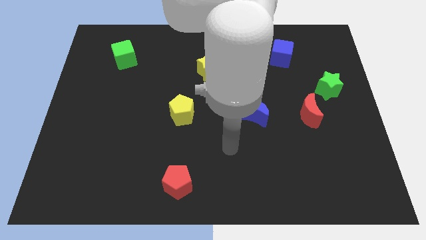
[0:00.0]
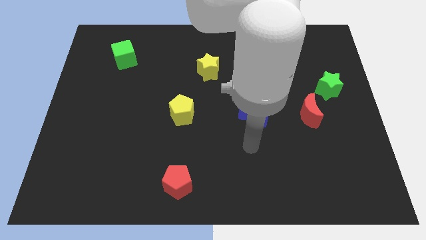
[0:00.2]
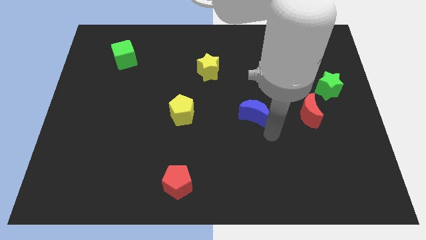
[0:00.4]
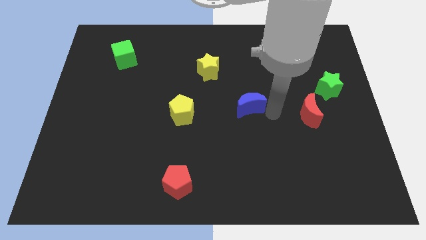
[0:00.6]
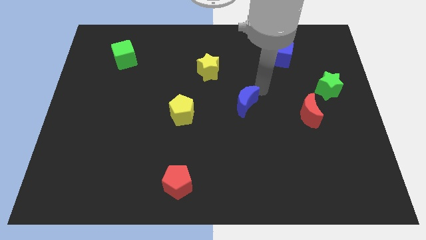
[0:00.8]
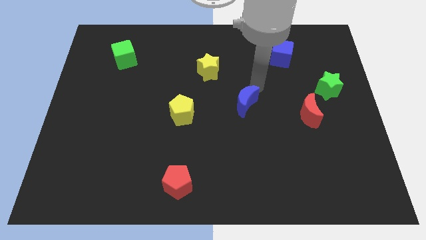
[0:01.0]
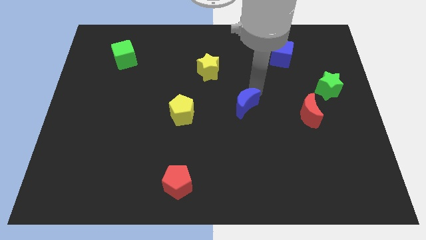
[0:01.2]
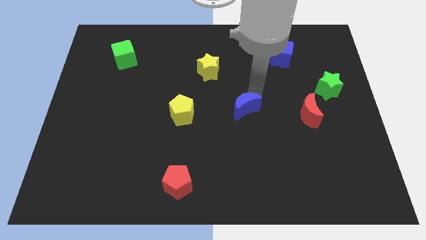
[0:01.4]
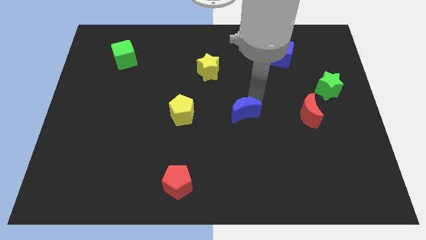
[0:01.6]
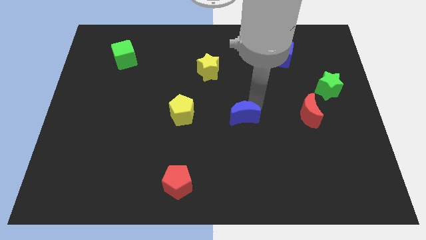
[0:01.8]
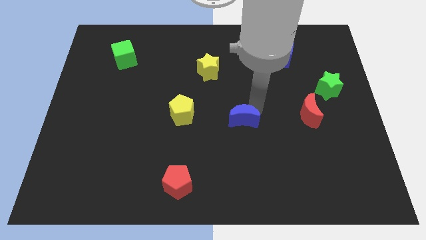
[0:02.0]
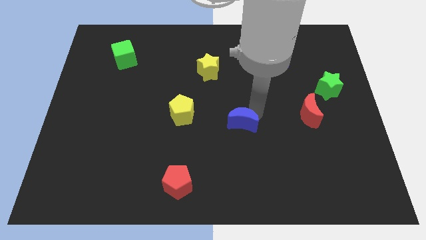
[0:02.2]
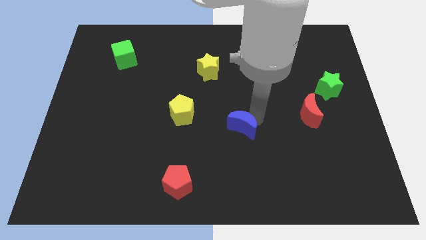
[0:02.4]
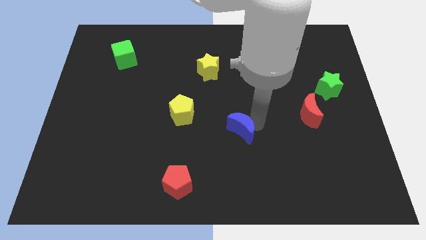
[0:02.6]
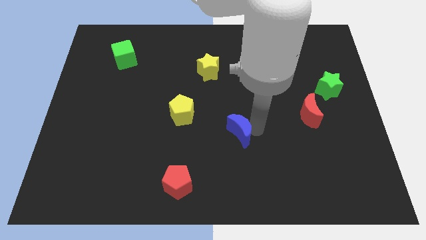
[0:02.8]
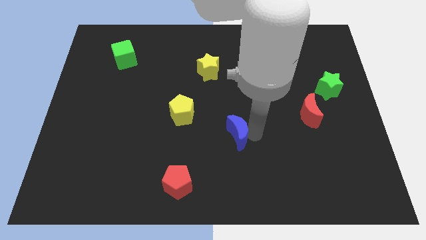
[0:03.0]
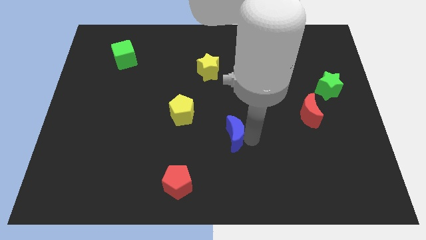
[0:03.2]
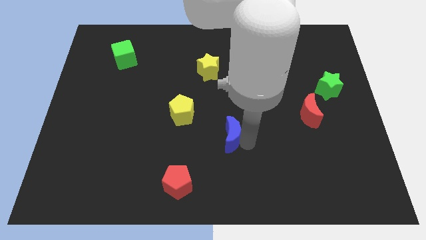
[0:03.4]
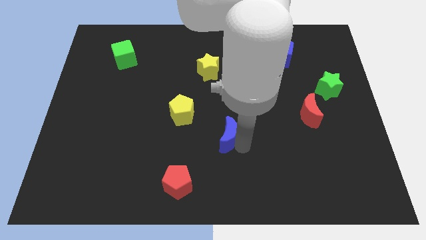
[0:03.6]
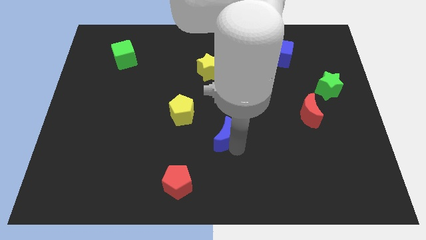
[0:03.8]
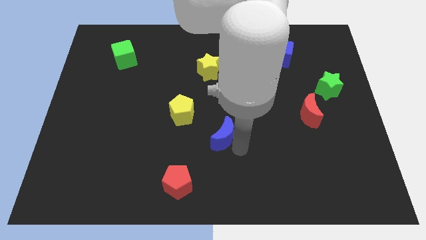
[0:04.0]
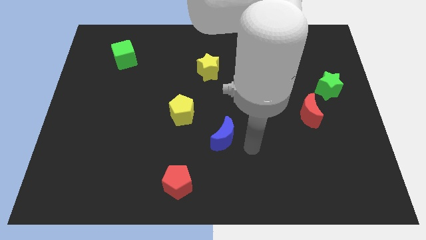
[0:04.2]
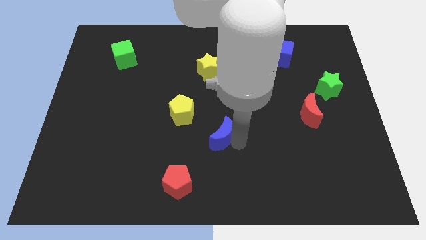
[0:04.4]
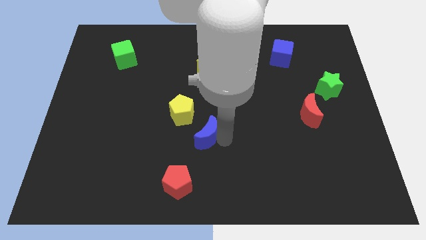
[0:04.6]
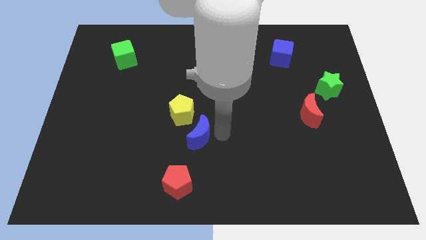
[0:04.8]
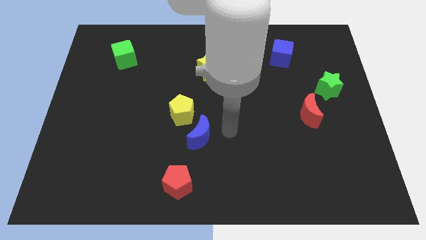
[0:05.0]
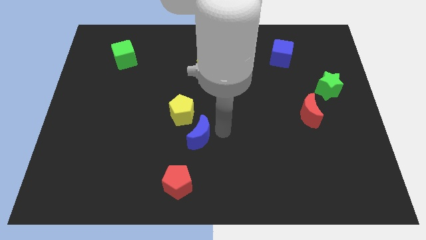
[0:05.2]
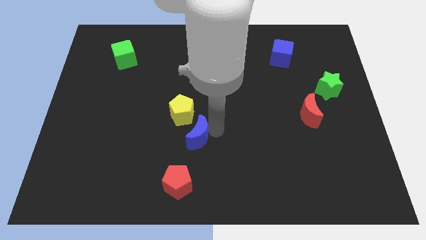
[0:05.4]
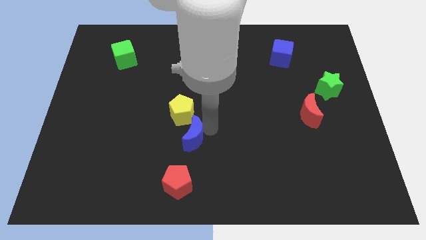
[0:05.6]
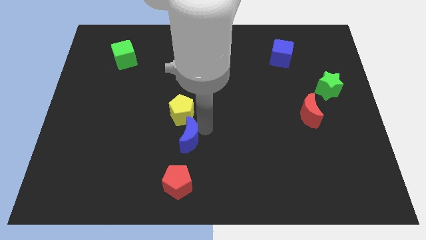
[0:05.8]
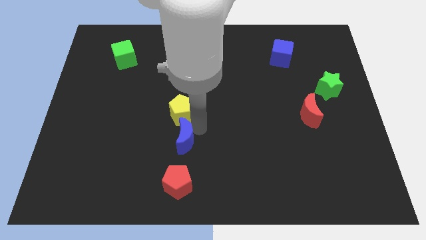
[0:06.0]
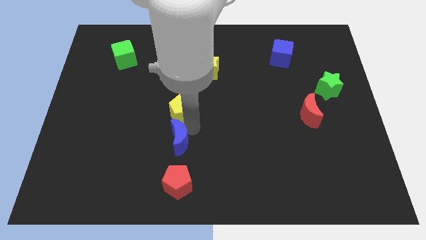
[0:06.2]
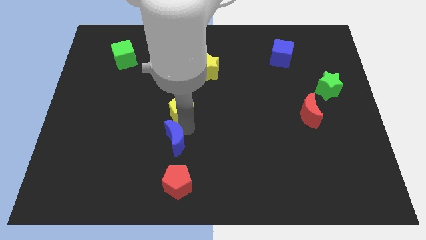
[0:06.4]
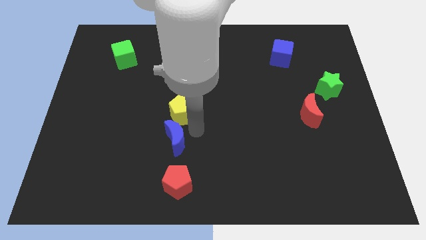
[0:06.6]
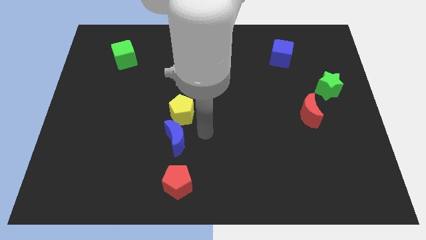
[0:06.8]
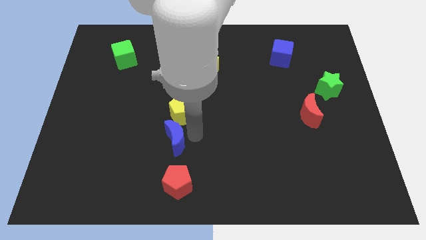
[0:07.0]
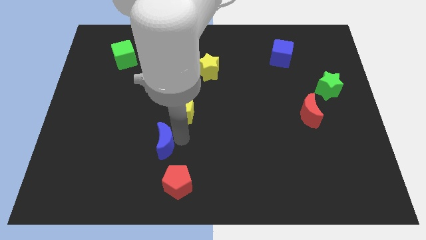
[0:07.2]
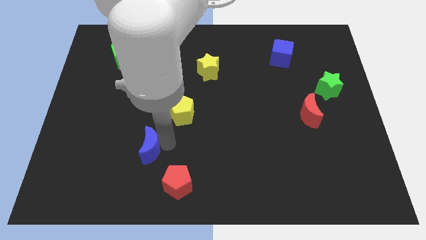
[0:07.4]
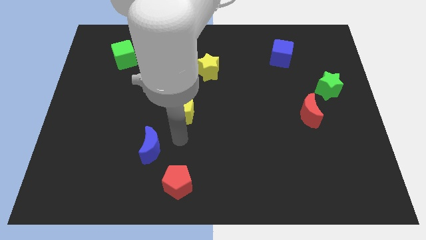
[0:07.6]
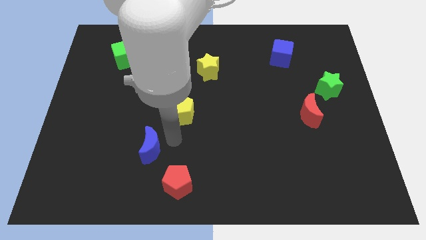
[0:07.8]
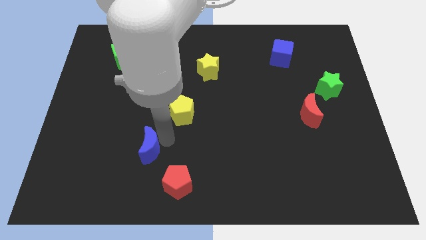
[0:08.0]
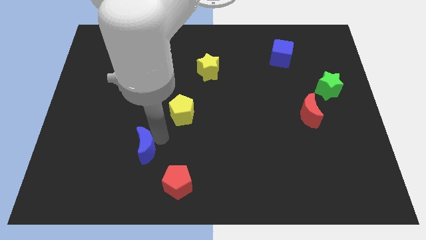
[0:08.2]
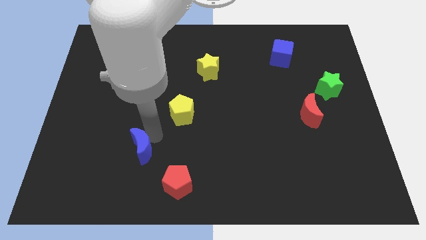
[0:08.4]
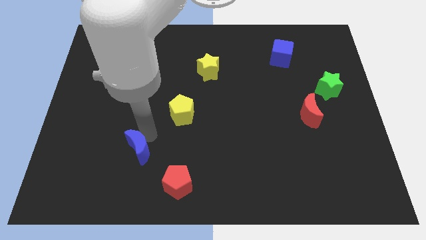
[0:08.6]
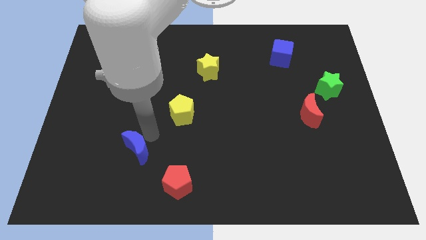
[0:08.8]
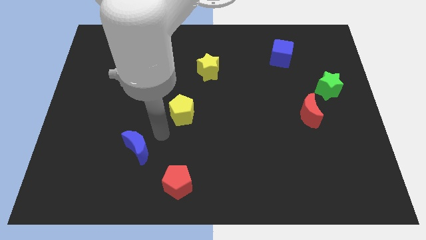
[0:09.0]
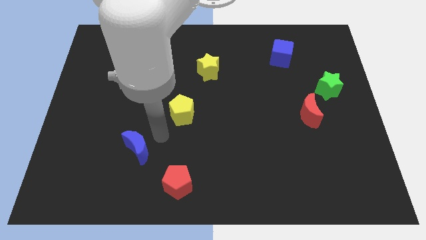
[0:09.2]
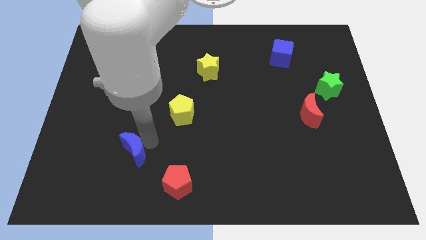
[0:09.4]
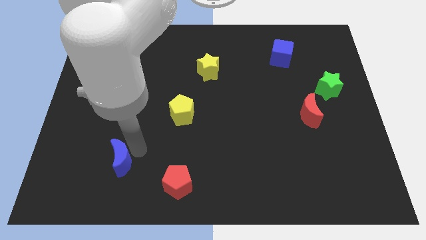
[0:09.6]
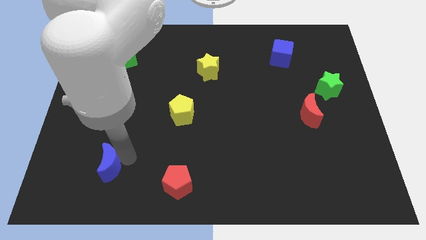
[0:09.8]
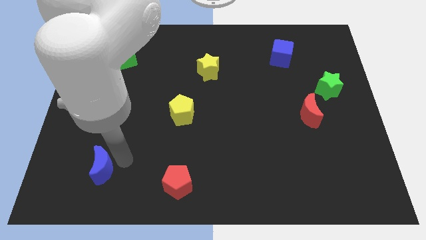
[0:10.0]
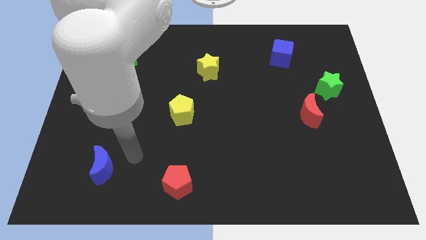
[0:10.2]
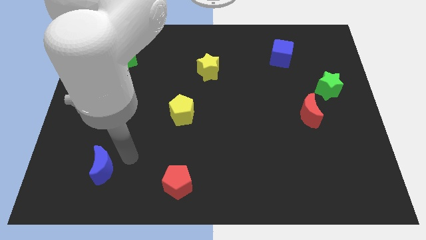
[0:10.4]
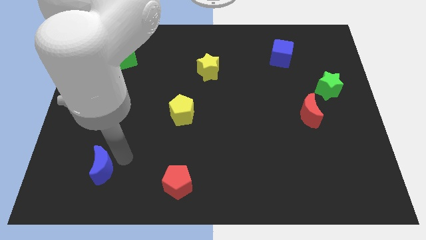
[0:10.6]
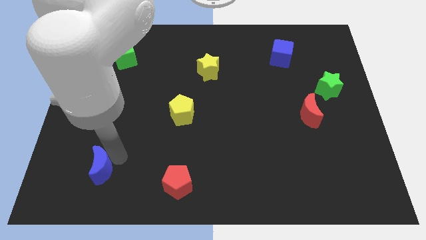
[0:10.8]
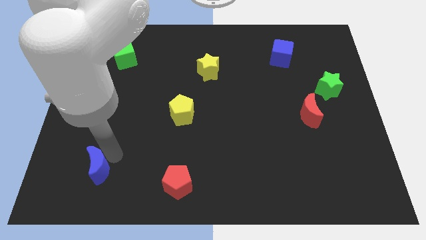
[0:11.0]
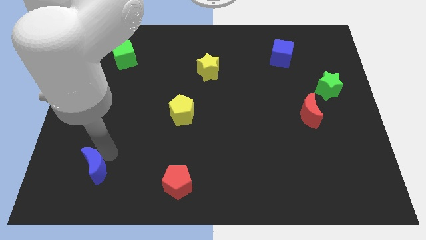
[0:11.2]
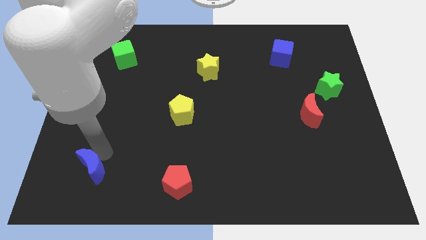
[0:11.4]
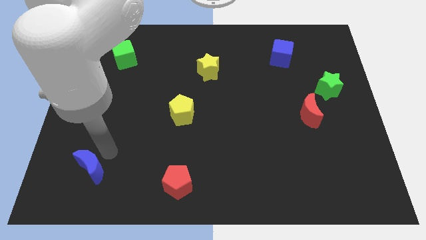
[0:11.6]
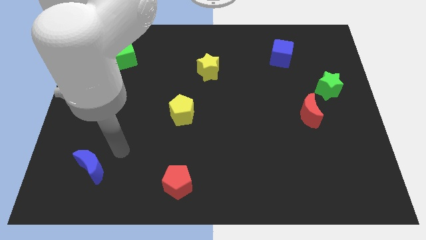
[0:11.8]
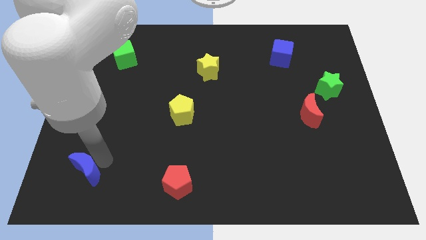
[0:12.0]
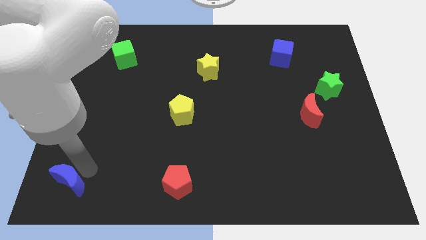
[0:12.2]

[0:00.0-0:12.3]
push the blue moon to the bottom left of the board
